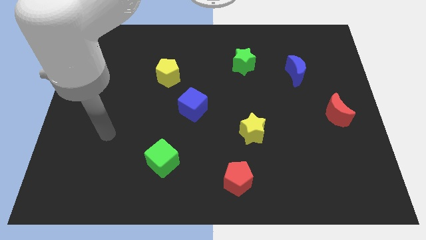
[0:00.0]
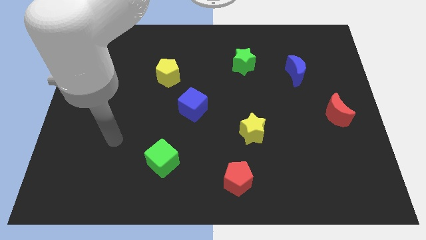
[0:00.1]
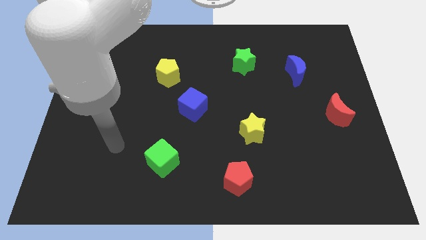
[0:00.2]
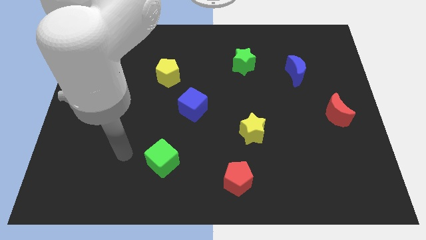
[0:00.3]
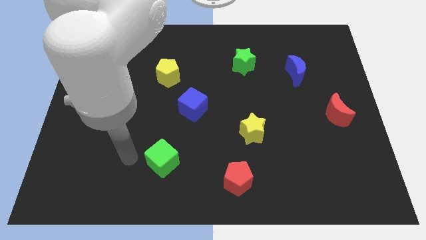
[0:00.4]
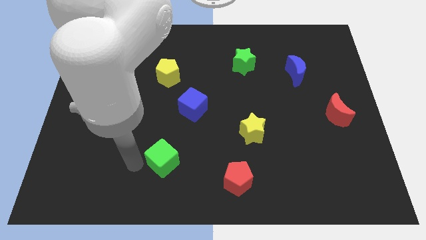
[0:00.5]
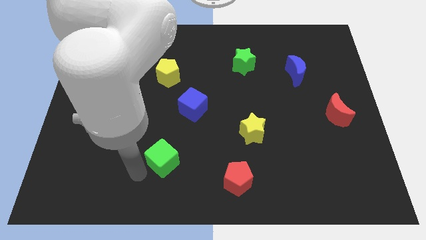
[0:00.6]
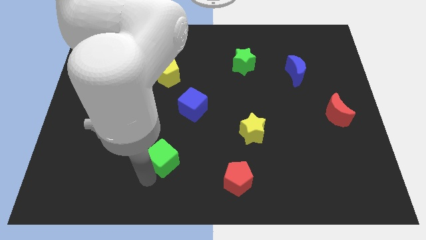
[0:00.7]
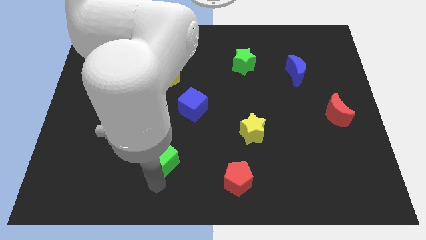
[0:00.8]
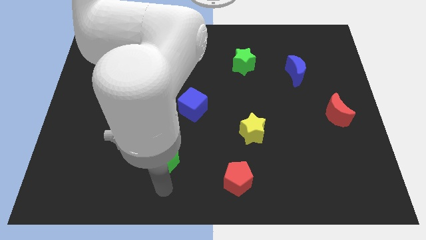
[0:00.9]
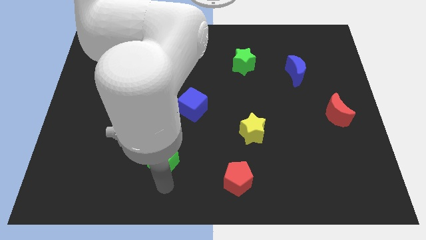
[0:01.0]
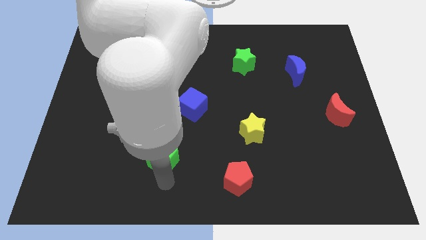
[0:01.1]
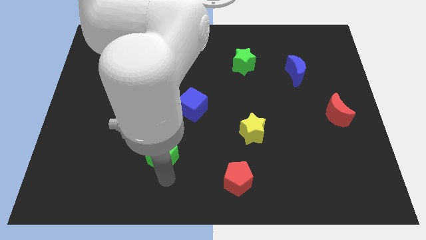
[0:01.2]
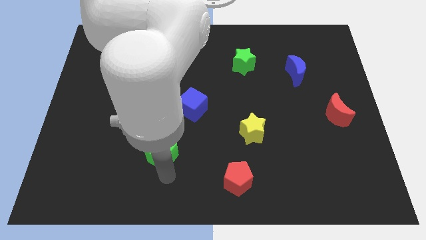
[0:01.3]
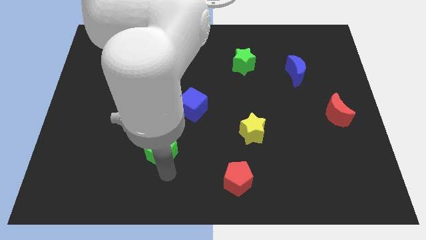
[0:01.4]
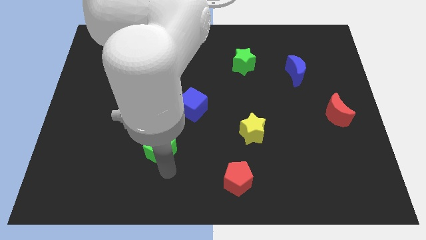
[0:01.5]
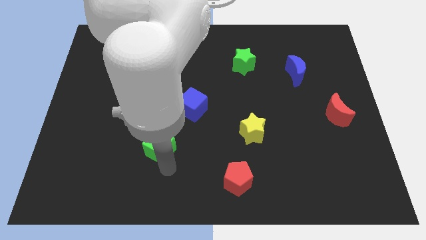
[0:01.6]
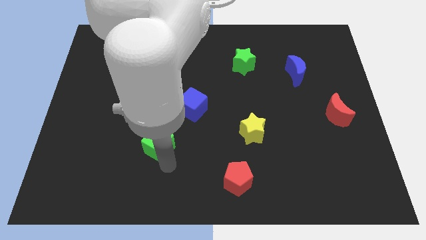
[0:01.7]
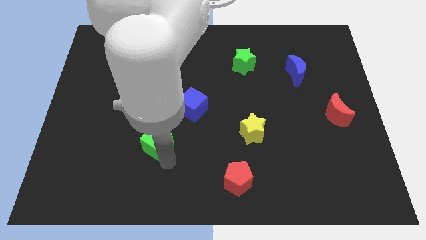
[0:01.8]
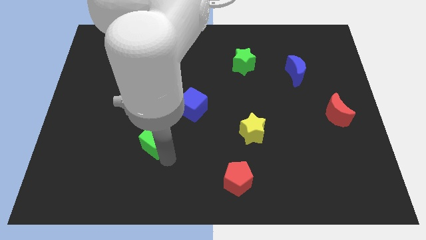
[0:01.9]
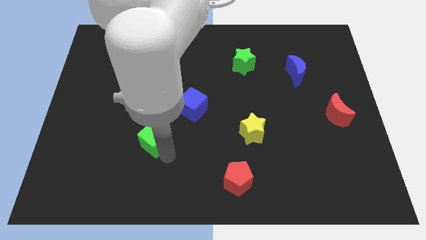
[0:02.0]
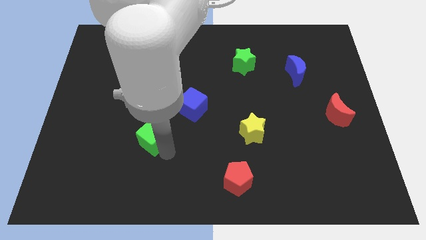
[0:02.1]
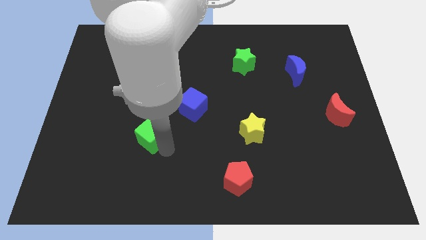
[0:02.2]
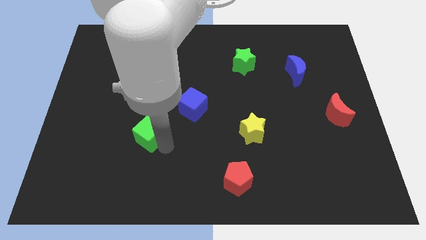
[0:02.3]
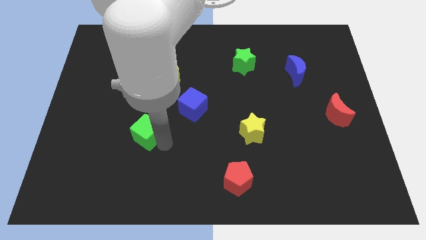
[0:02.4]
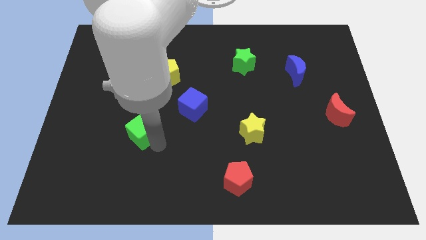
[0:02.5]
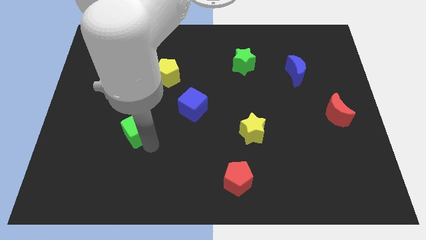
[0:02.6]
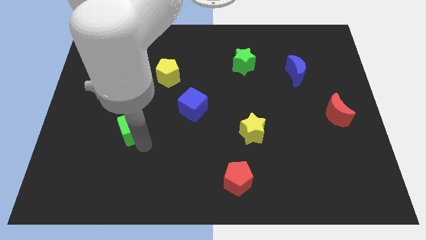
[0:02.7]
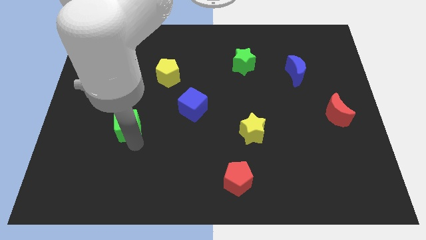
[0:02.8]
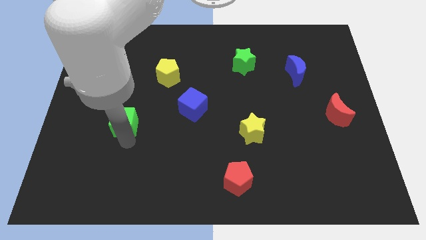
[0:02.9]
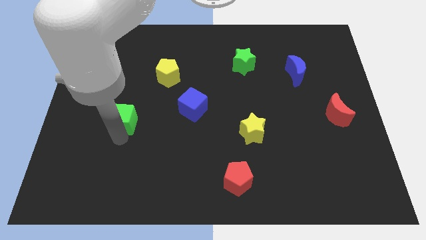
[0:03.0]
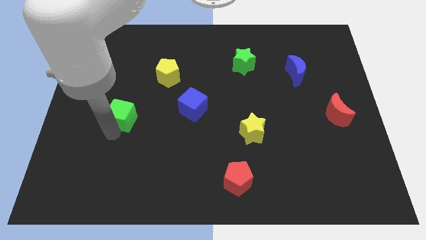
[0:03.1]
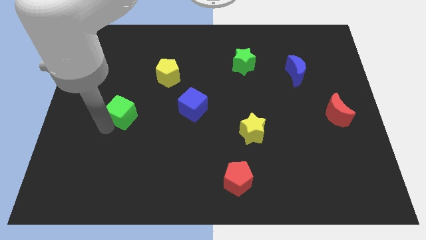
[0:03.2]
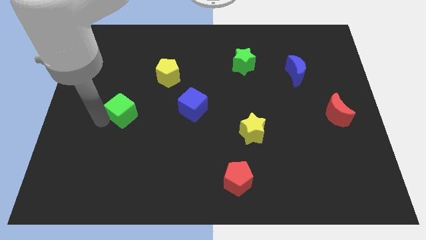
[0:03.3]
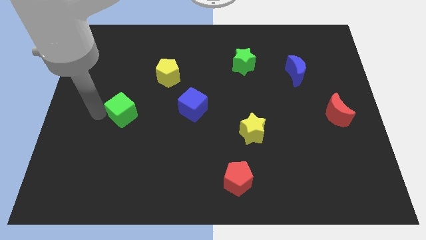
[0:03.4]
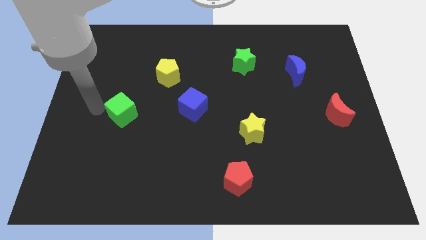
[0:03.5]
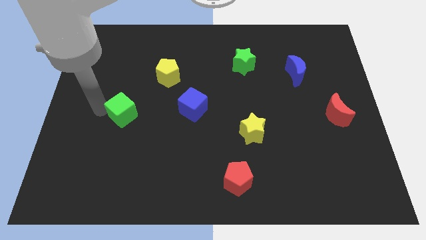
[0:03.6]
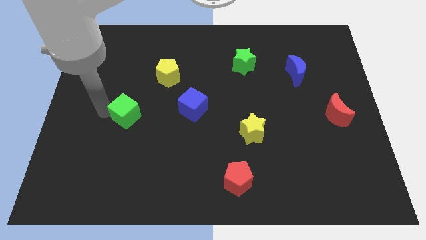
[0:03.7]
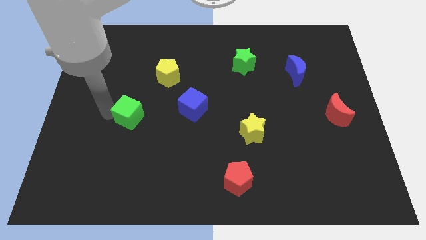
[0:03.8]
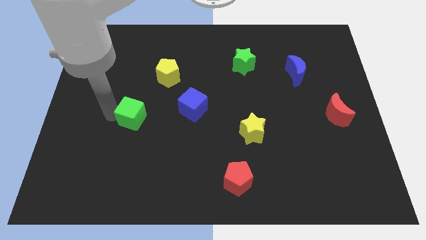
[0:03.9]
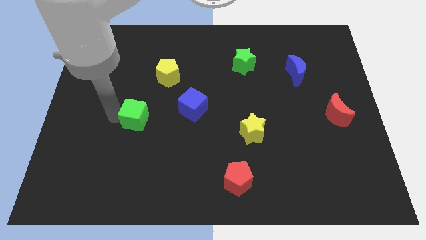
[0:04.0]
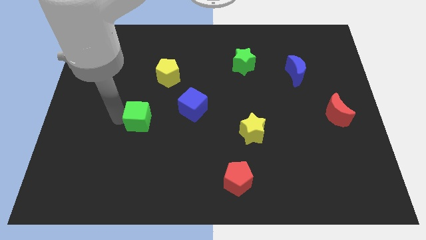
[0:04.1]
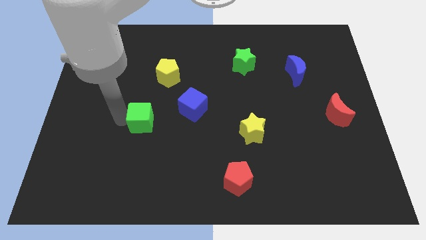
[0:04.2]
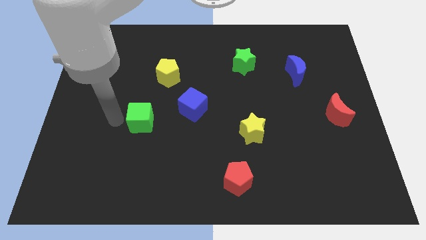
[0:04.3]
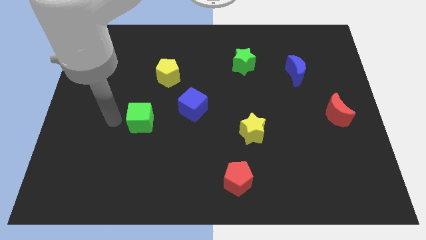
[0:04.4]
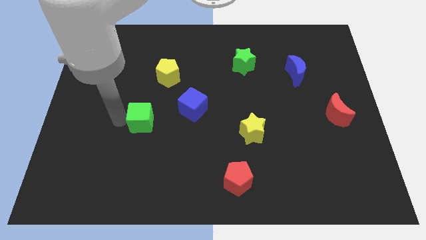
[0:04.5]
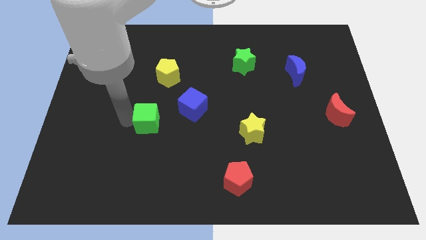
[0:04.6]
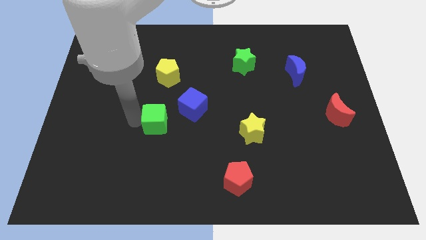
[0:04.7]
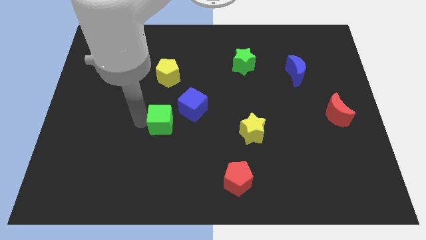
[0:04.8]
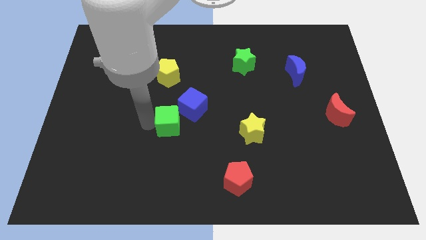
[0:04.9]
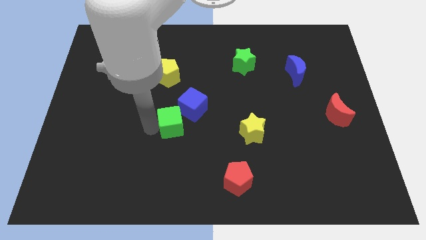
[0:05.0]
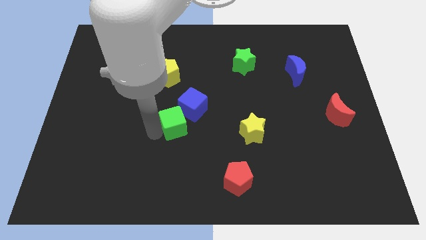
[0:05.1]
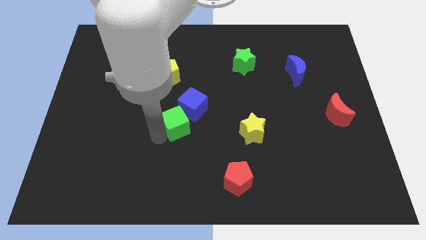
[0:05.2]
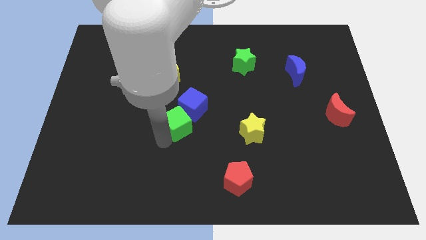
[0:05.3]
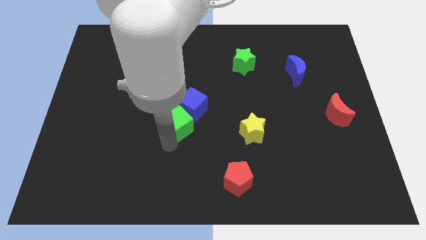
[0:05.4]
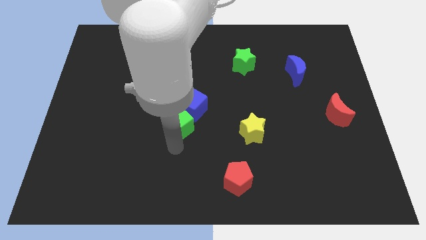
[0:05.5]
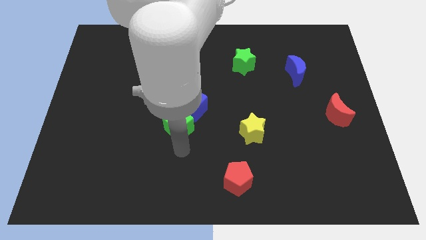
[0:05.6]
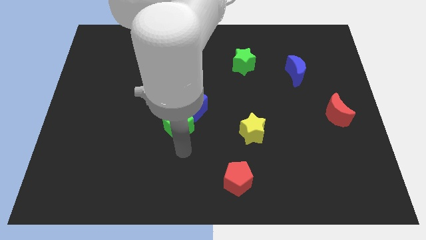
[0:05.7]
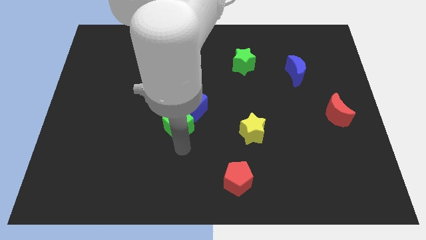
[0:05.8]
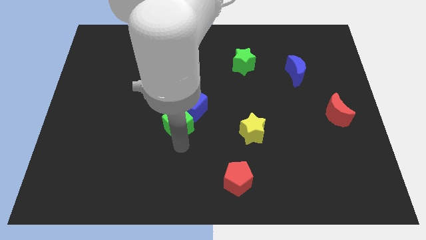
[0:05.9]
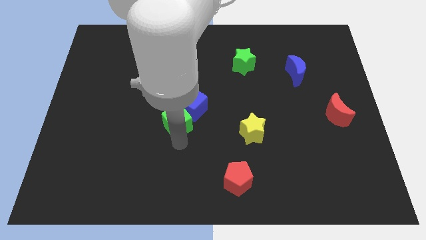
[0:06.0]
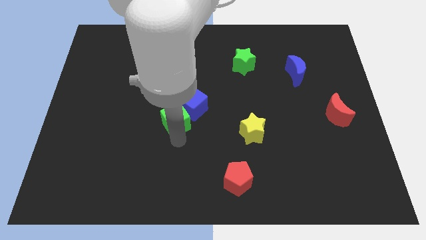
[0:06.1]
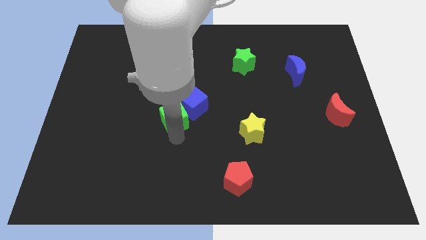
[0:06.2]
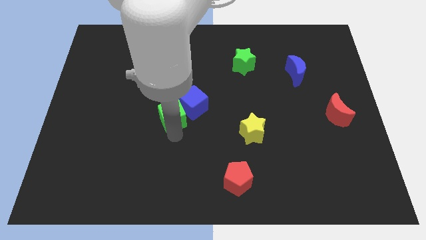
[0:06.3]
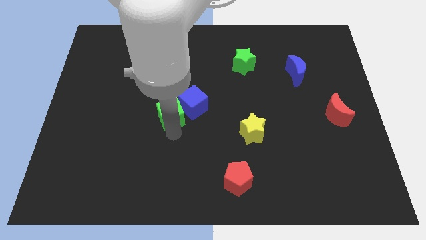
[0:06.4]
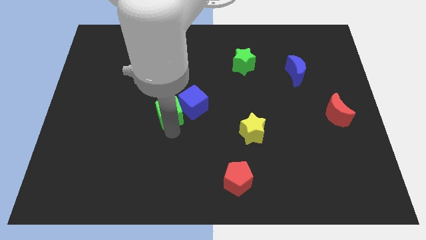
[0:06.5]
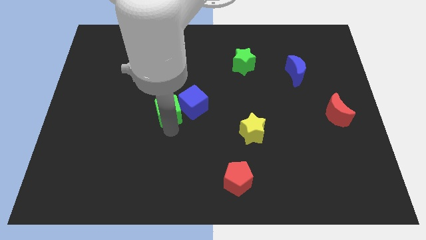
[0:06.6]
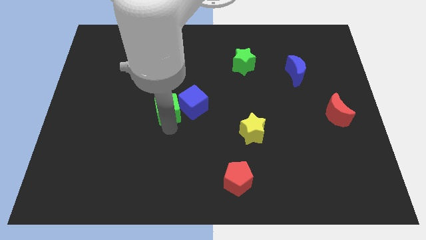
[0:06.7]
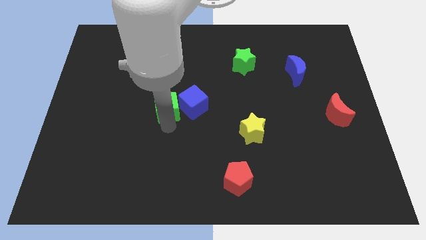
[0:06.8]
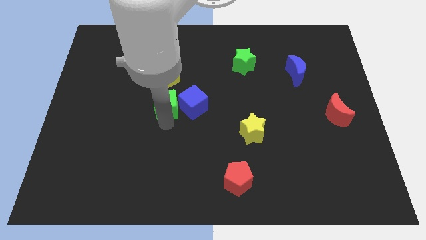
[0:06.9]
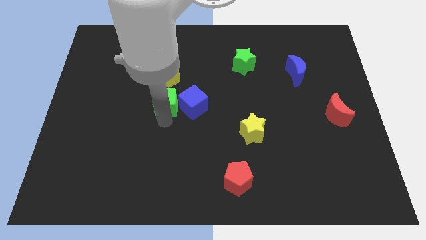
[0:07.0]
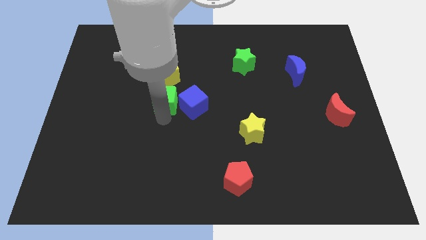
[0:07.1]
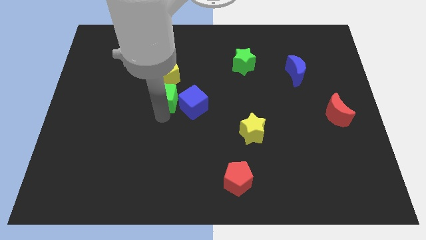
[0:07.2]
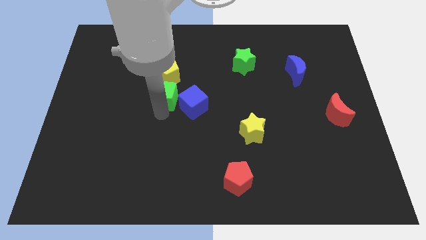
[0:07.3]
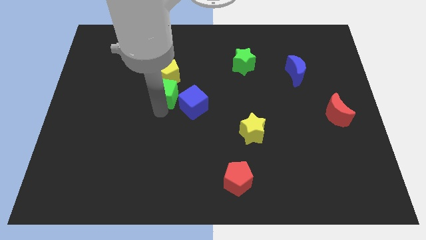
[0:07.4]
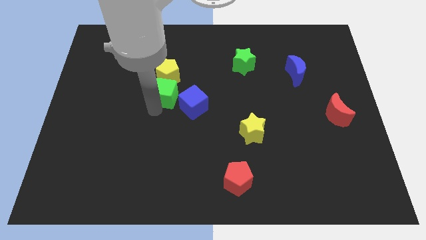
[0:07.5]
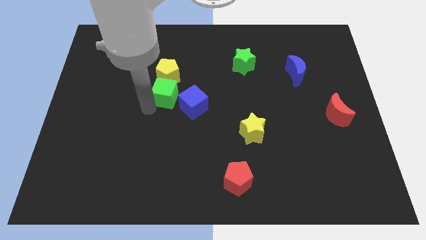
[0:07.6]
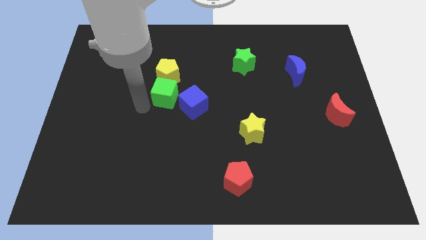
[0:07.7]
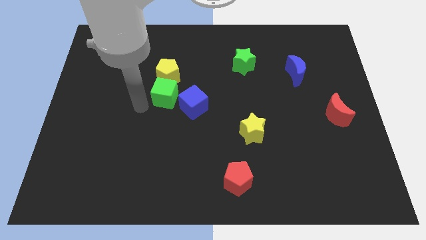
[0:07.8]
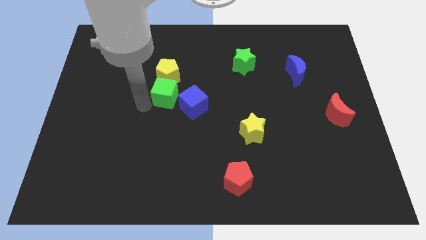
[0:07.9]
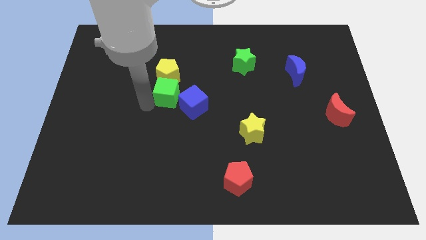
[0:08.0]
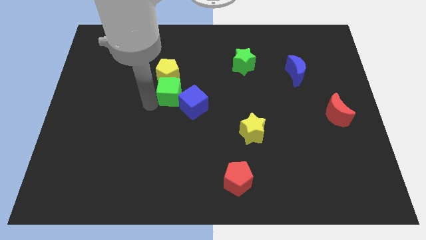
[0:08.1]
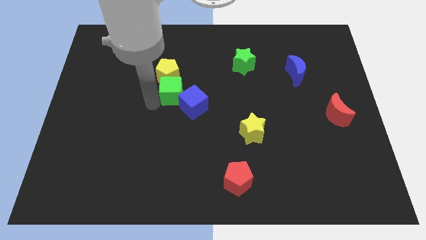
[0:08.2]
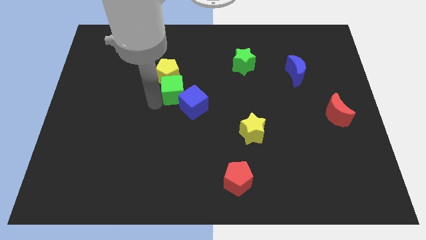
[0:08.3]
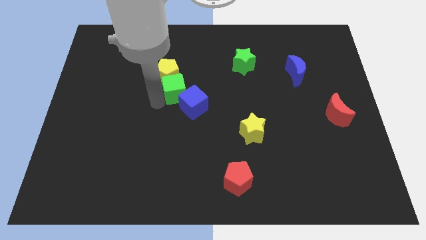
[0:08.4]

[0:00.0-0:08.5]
move the green cube above the blue cube
